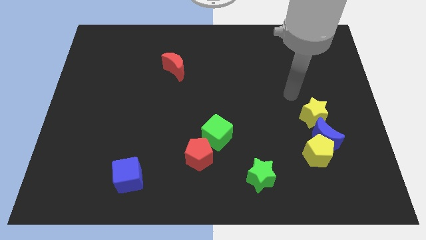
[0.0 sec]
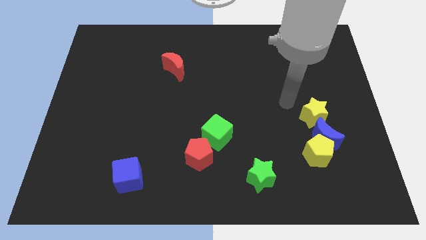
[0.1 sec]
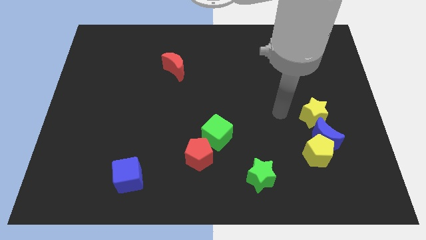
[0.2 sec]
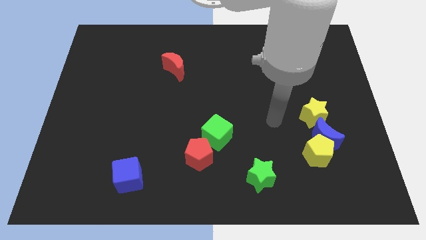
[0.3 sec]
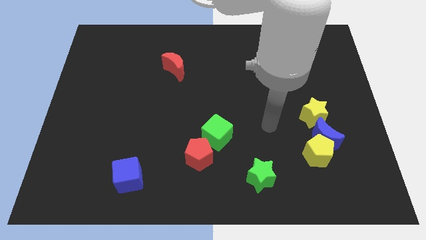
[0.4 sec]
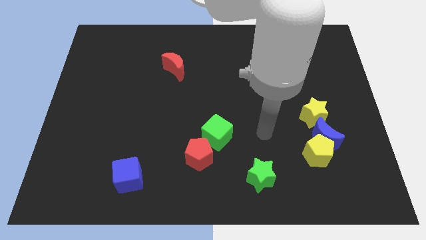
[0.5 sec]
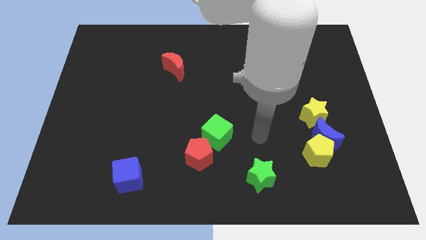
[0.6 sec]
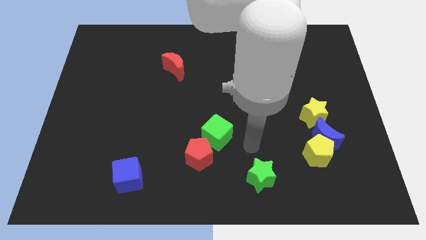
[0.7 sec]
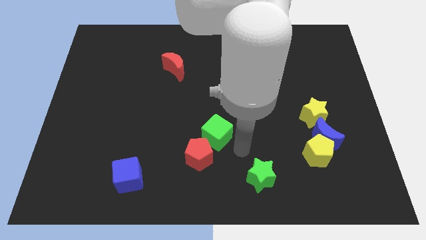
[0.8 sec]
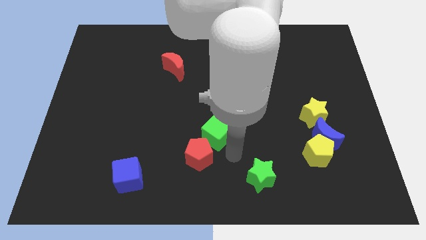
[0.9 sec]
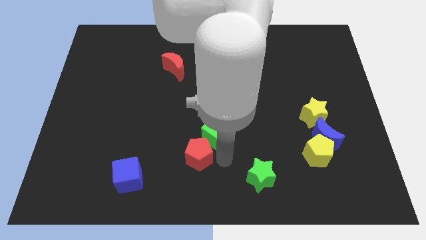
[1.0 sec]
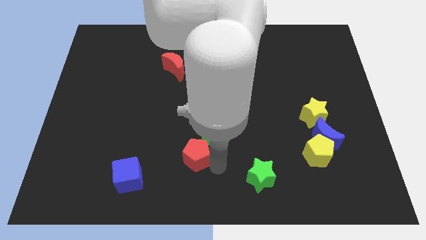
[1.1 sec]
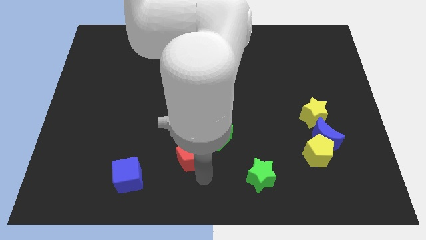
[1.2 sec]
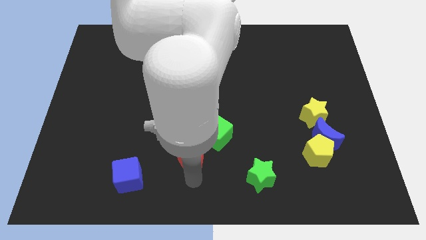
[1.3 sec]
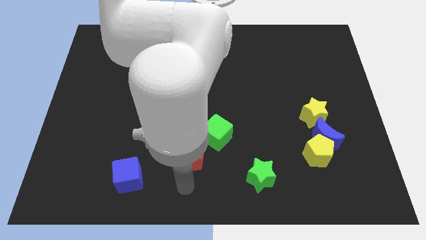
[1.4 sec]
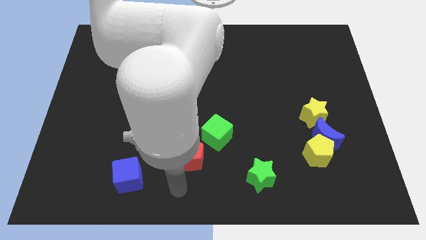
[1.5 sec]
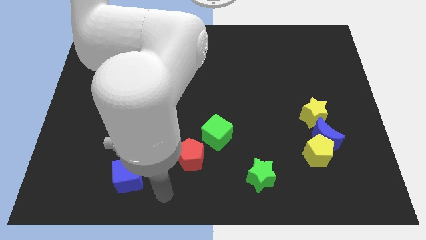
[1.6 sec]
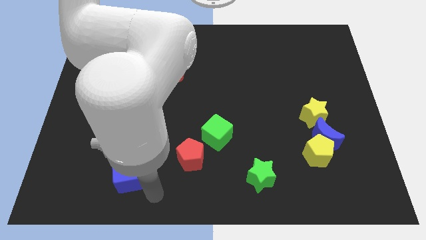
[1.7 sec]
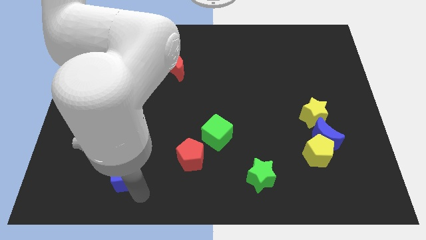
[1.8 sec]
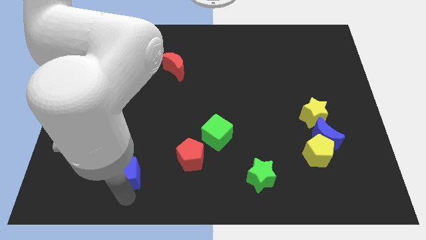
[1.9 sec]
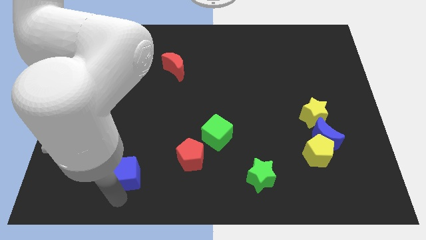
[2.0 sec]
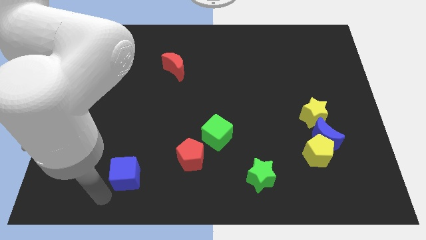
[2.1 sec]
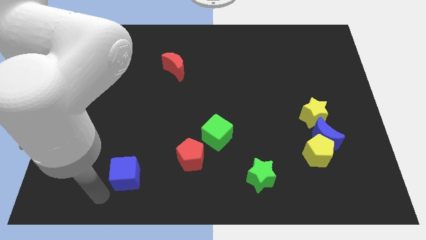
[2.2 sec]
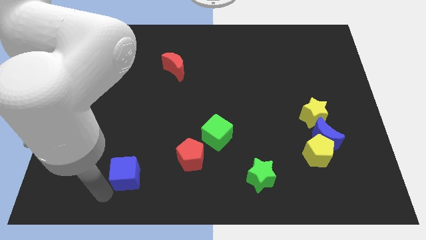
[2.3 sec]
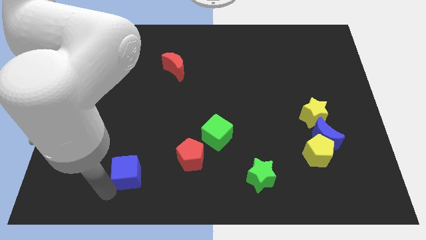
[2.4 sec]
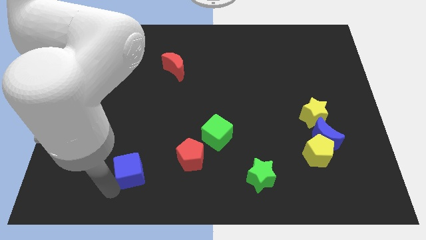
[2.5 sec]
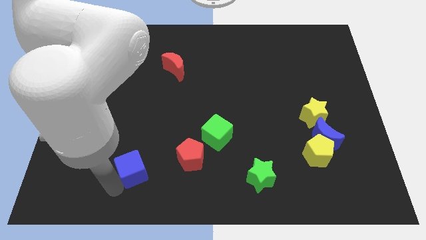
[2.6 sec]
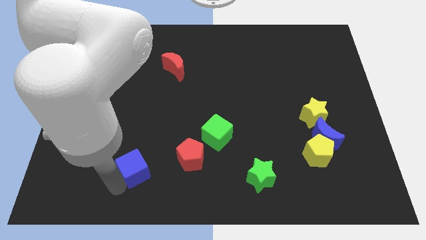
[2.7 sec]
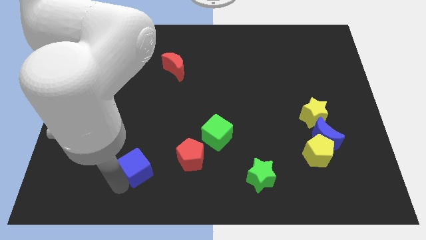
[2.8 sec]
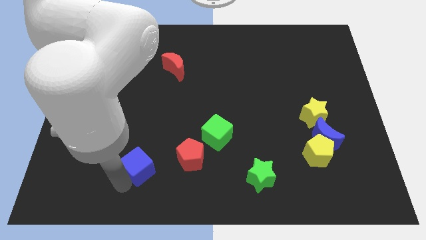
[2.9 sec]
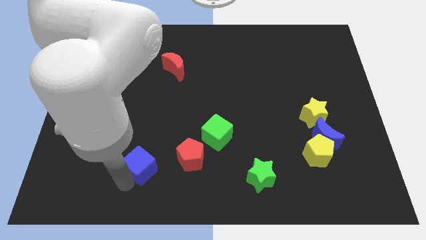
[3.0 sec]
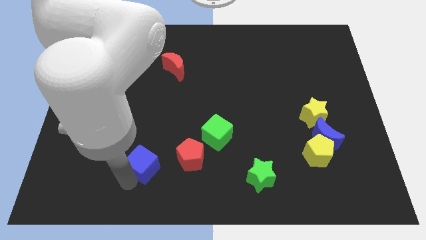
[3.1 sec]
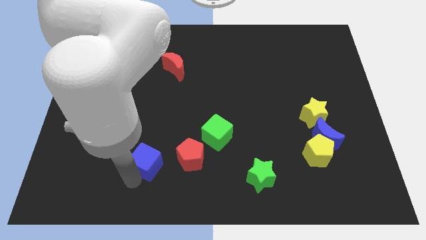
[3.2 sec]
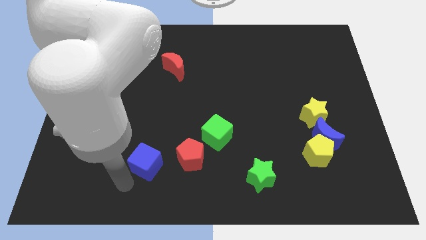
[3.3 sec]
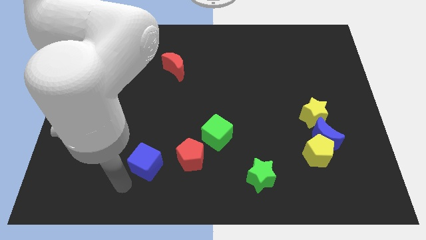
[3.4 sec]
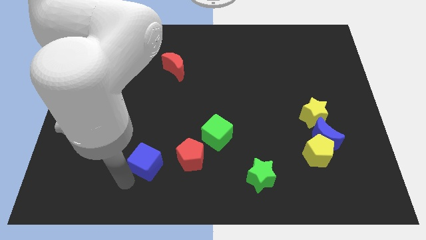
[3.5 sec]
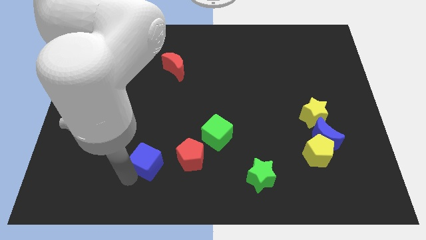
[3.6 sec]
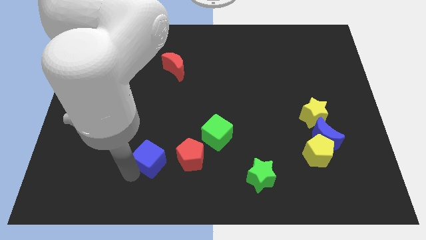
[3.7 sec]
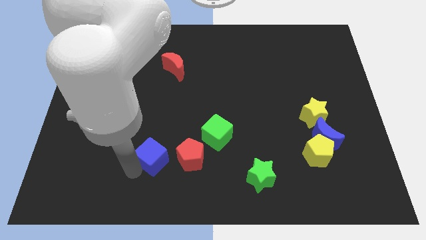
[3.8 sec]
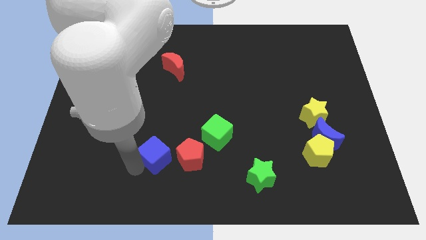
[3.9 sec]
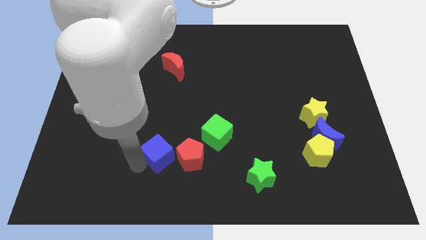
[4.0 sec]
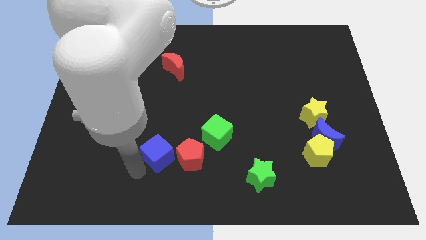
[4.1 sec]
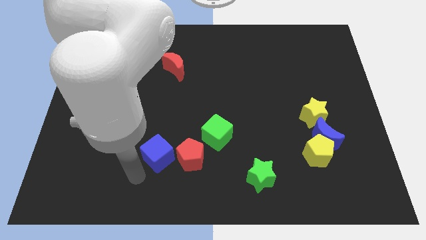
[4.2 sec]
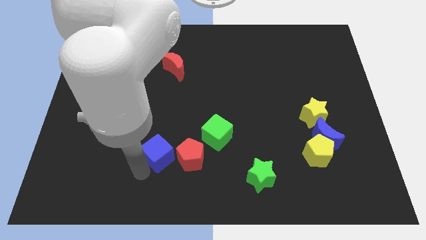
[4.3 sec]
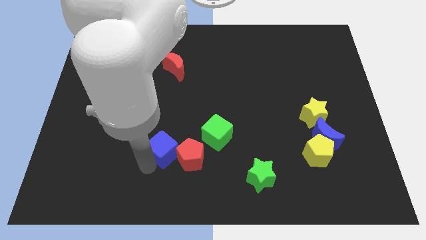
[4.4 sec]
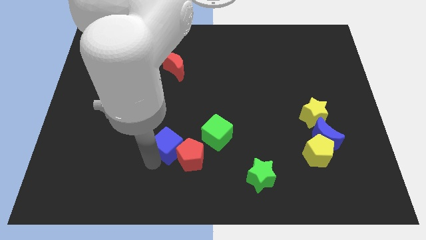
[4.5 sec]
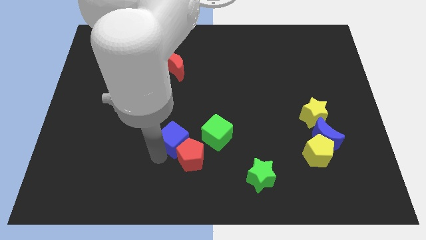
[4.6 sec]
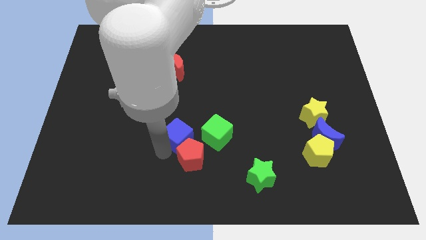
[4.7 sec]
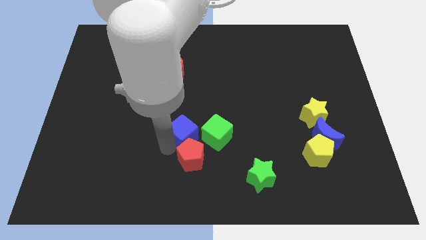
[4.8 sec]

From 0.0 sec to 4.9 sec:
slide the blue cube to the middle of the board

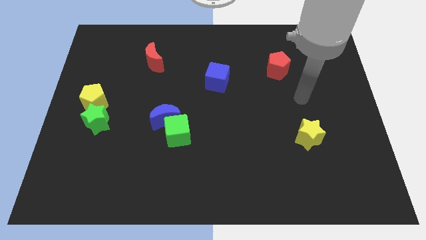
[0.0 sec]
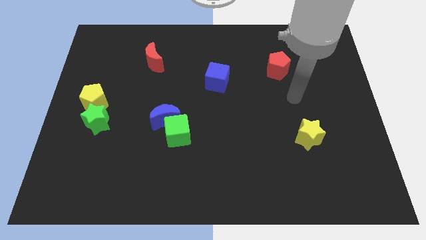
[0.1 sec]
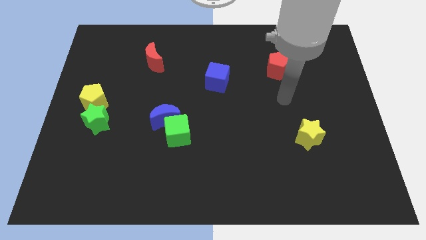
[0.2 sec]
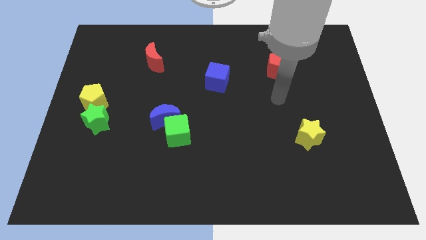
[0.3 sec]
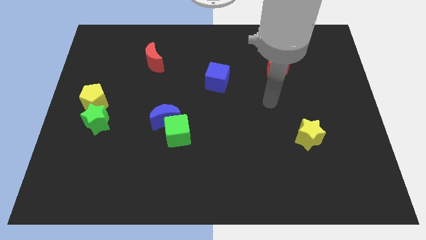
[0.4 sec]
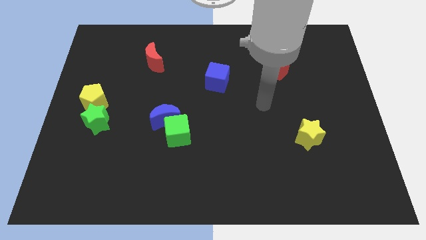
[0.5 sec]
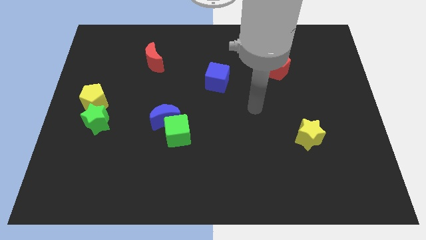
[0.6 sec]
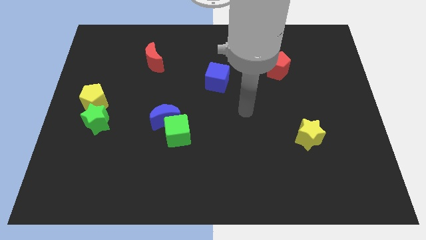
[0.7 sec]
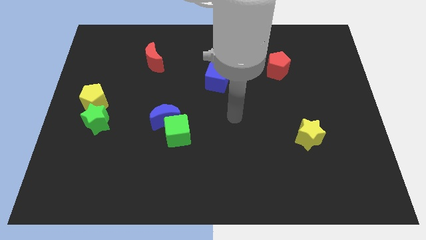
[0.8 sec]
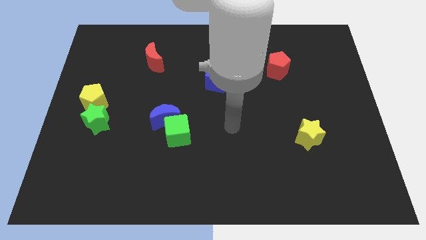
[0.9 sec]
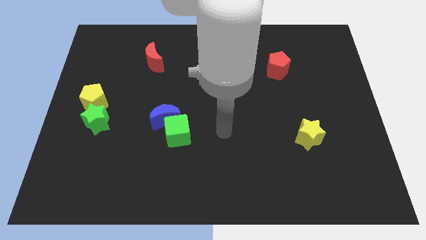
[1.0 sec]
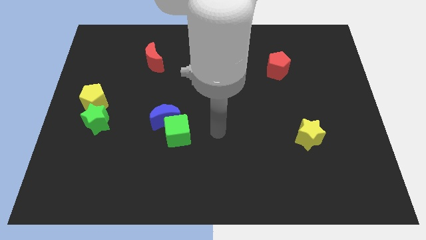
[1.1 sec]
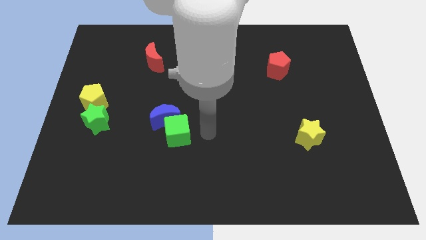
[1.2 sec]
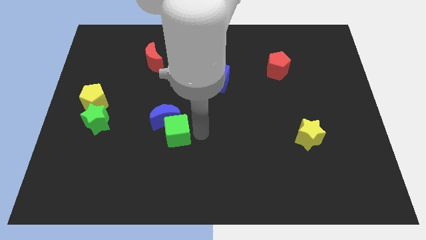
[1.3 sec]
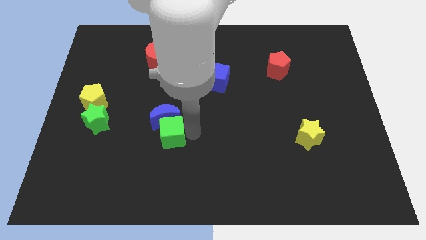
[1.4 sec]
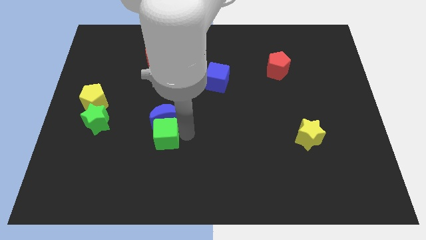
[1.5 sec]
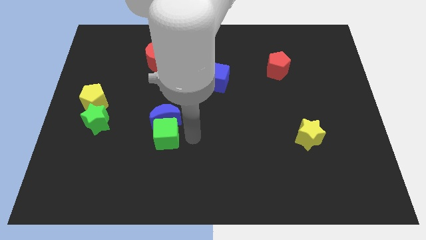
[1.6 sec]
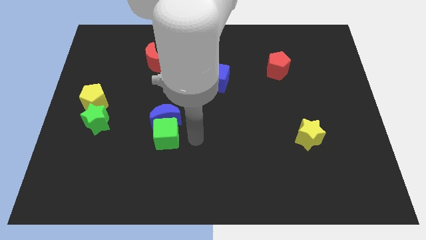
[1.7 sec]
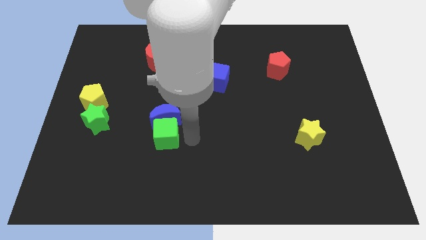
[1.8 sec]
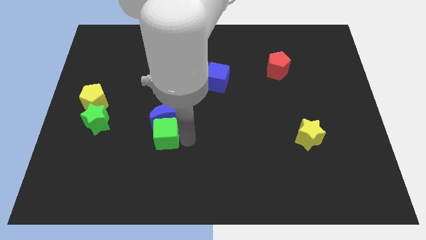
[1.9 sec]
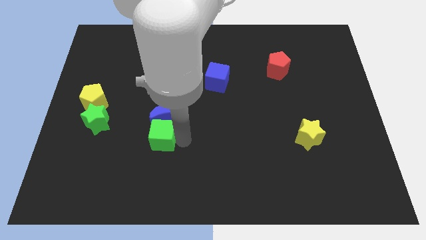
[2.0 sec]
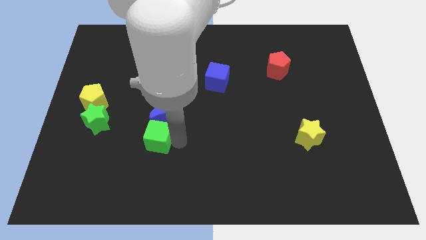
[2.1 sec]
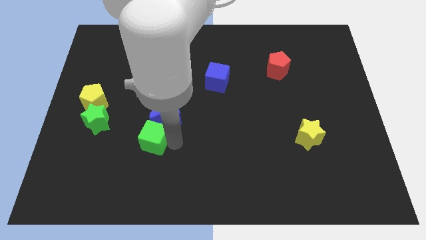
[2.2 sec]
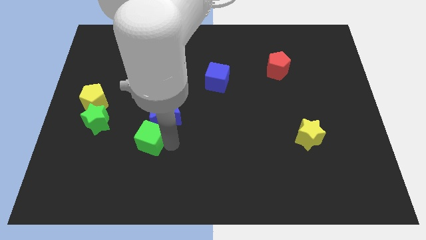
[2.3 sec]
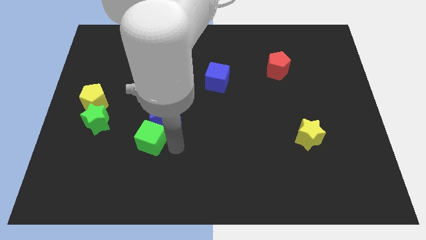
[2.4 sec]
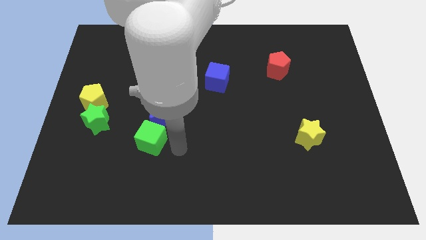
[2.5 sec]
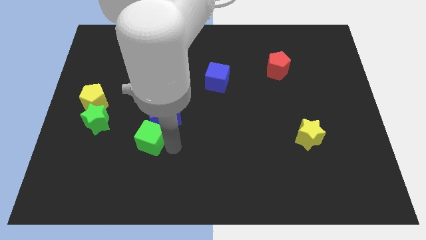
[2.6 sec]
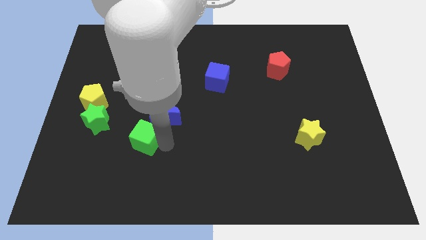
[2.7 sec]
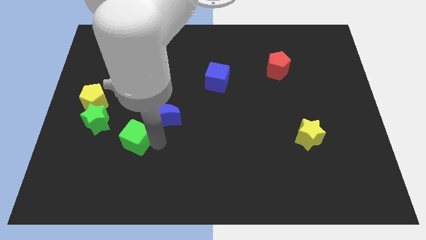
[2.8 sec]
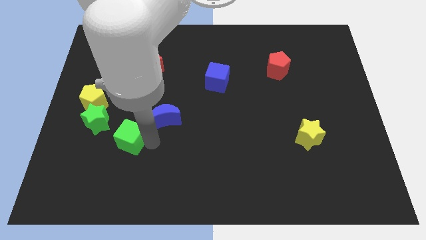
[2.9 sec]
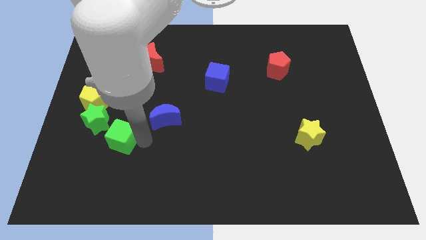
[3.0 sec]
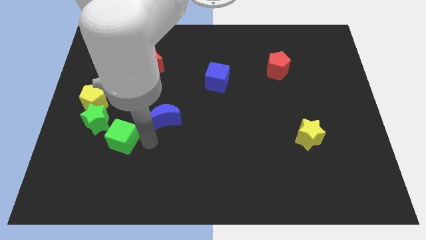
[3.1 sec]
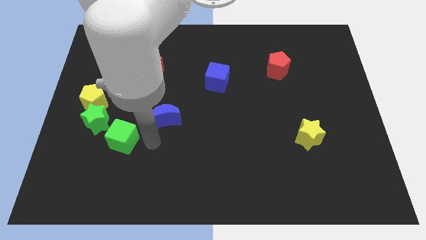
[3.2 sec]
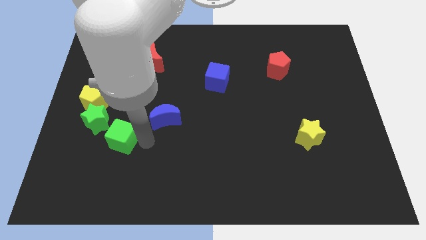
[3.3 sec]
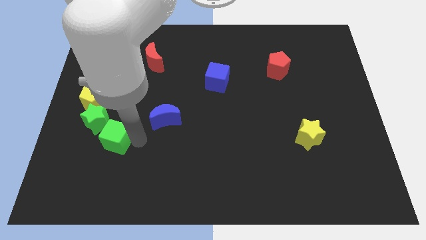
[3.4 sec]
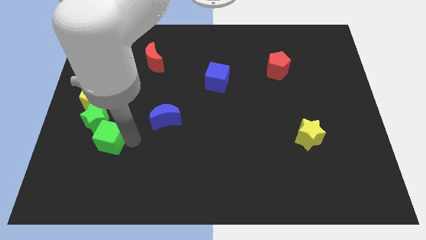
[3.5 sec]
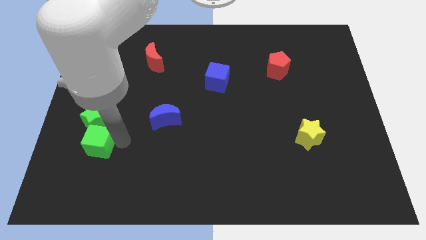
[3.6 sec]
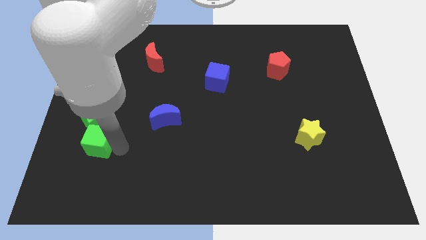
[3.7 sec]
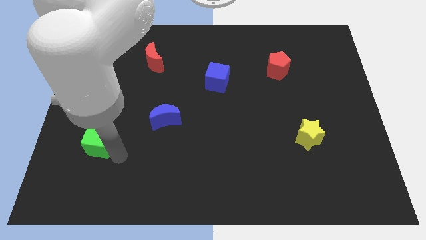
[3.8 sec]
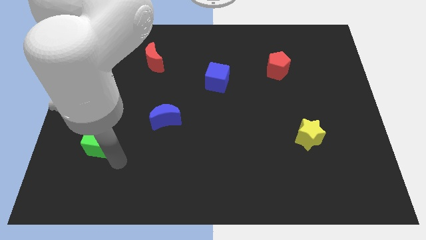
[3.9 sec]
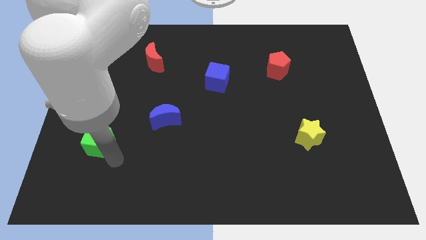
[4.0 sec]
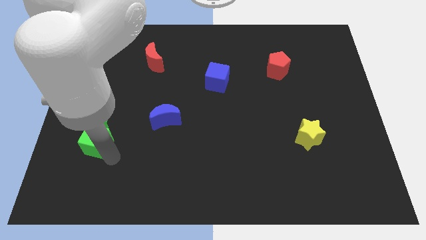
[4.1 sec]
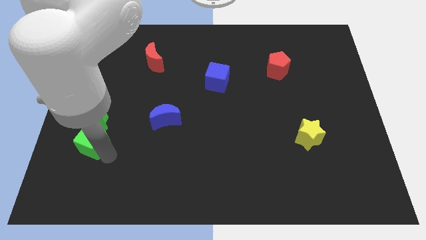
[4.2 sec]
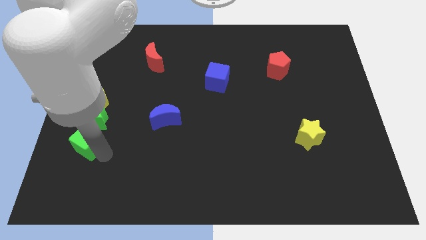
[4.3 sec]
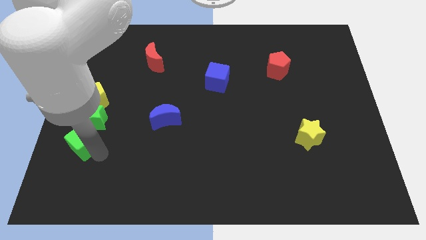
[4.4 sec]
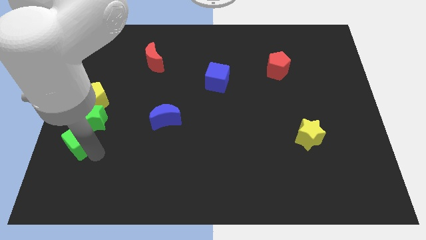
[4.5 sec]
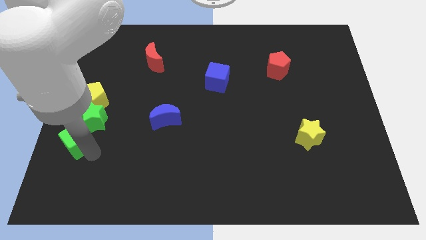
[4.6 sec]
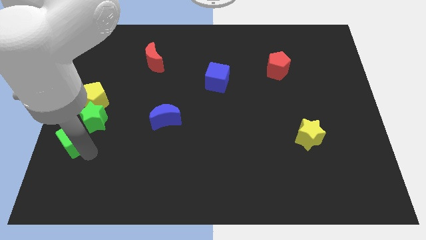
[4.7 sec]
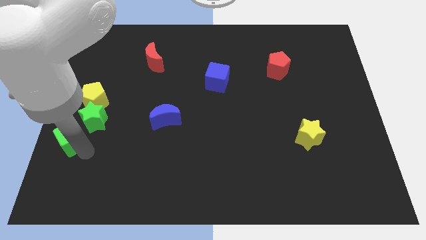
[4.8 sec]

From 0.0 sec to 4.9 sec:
slide the green cube to the center left
